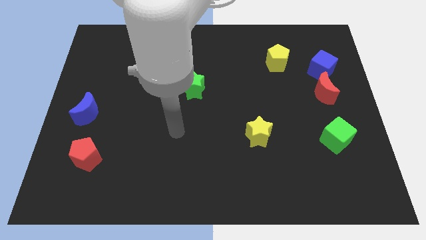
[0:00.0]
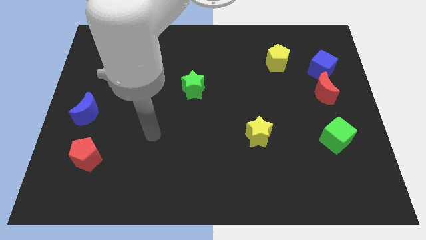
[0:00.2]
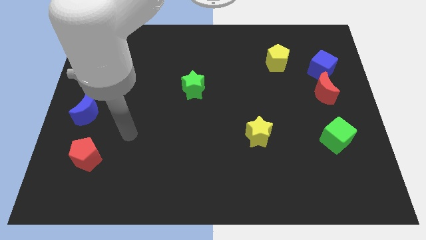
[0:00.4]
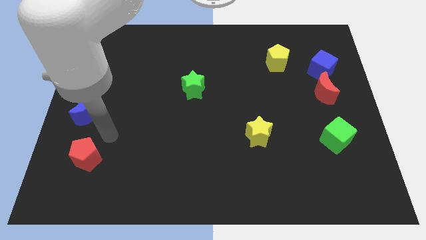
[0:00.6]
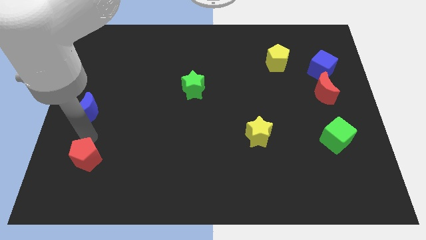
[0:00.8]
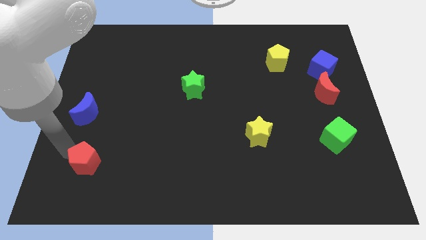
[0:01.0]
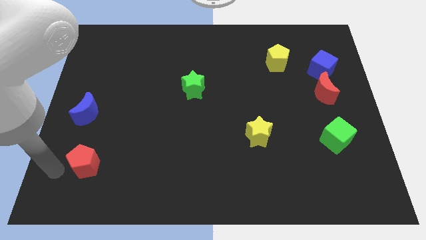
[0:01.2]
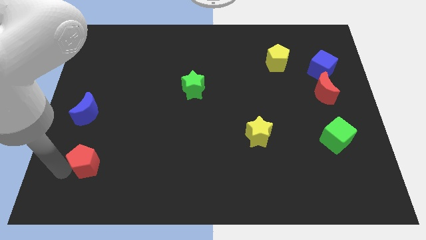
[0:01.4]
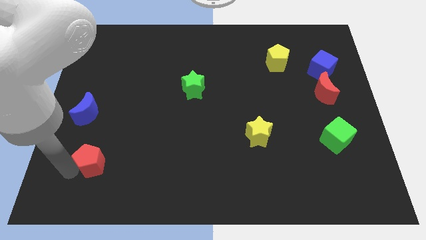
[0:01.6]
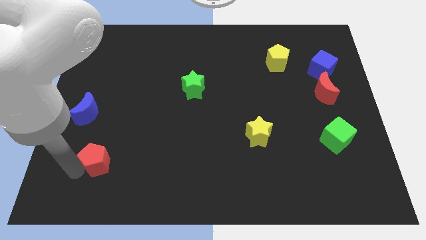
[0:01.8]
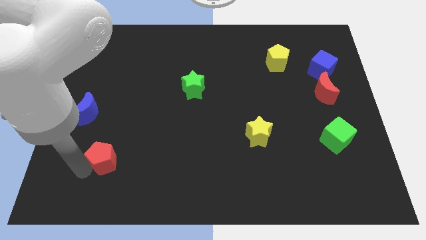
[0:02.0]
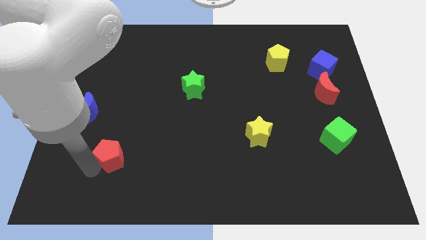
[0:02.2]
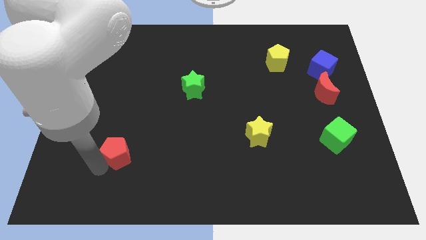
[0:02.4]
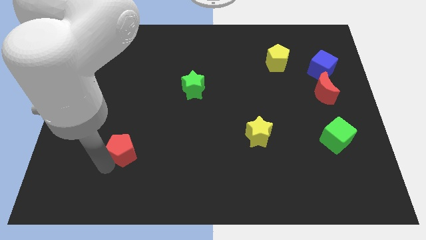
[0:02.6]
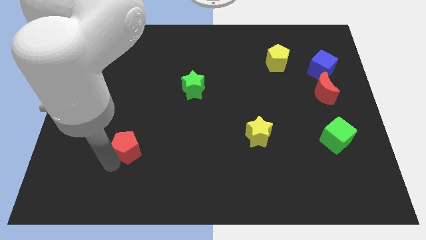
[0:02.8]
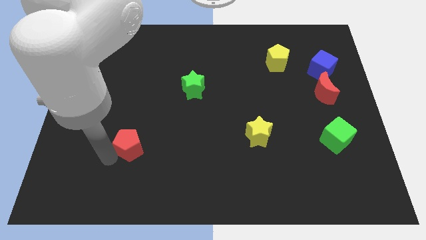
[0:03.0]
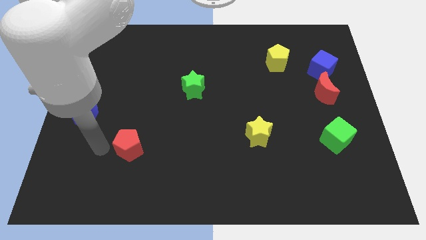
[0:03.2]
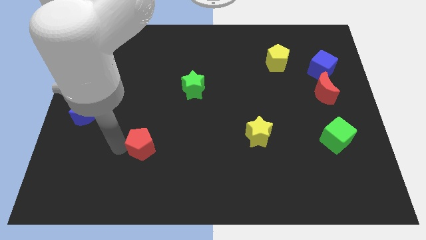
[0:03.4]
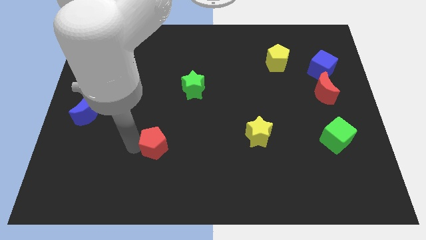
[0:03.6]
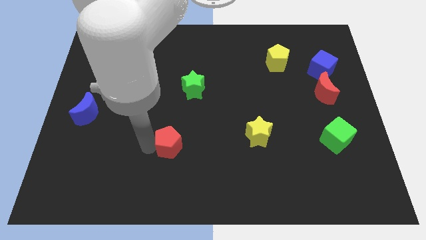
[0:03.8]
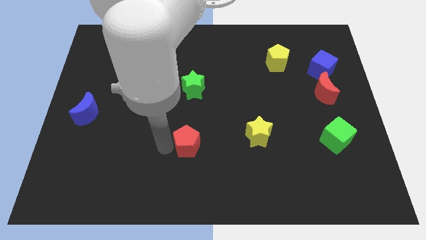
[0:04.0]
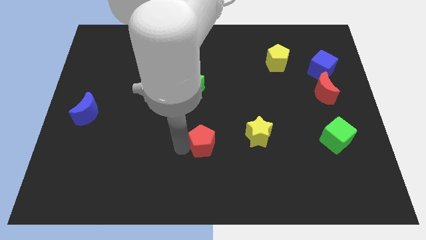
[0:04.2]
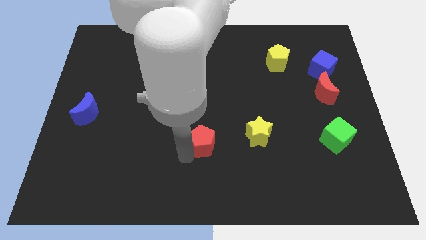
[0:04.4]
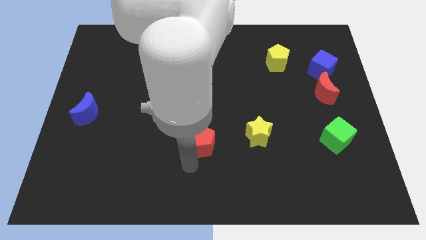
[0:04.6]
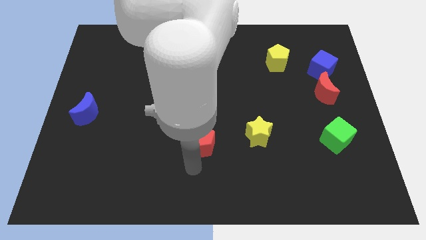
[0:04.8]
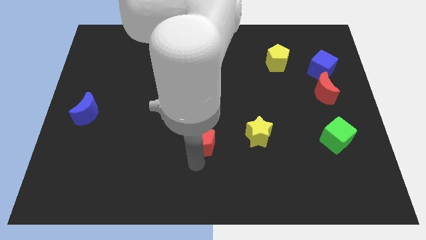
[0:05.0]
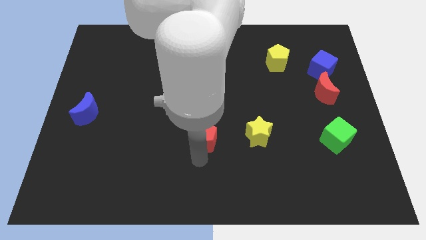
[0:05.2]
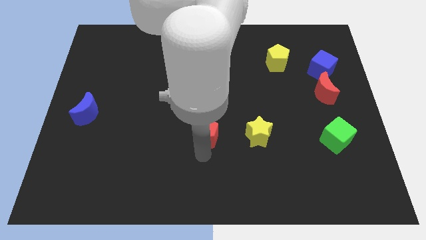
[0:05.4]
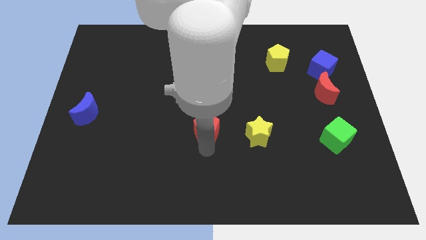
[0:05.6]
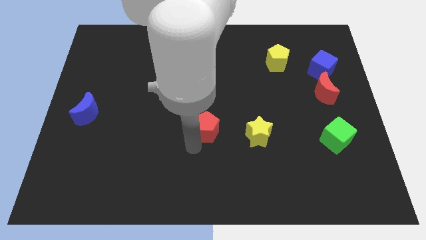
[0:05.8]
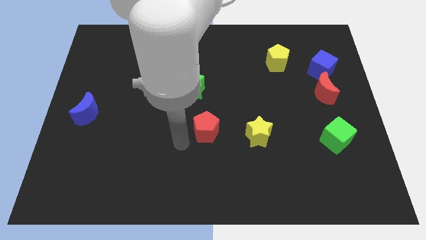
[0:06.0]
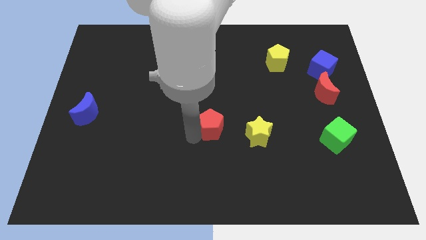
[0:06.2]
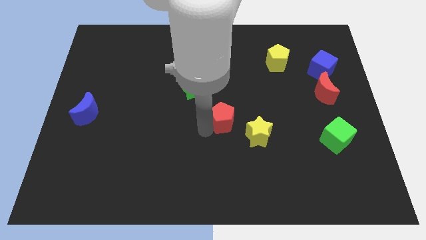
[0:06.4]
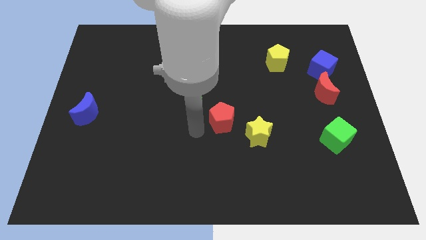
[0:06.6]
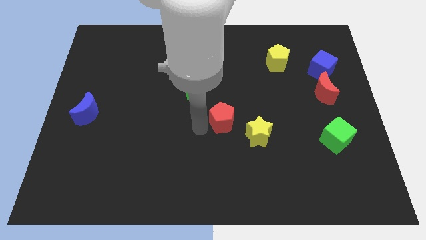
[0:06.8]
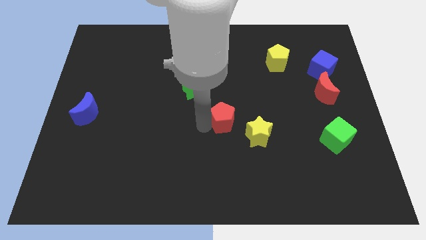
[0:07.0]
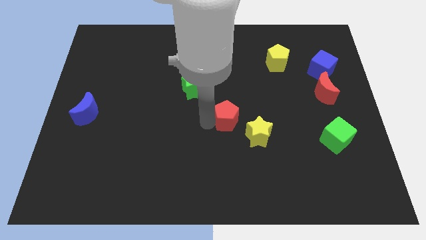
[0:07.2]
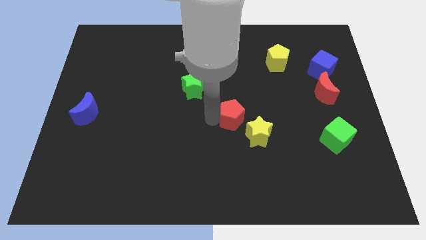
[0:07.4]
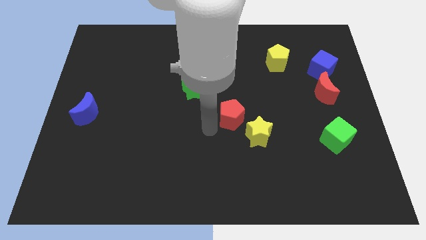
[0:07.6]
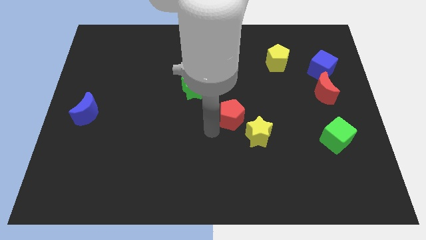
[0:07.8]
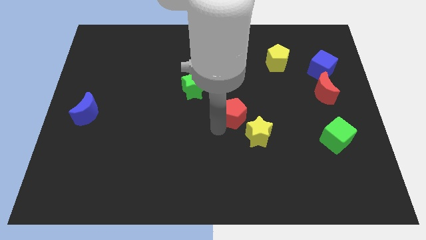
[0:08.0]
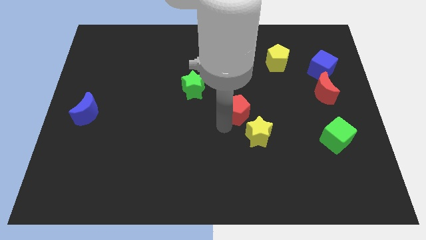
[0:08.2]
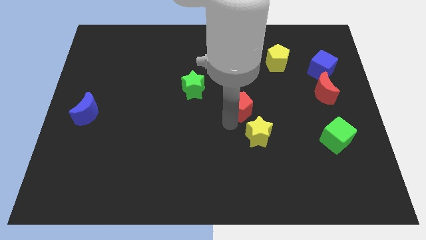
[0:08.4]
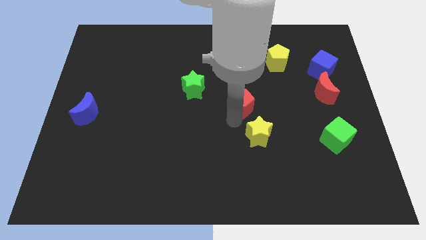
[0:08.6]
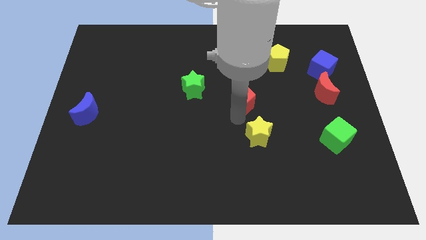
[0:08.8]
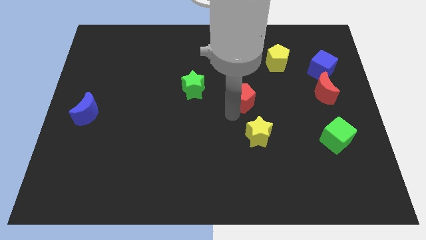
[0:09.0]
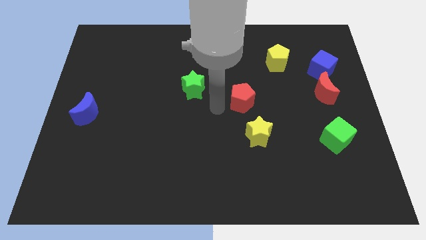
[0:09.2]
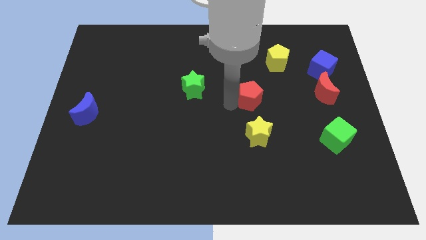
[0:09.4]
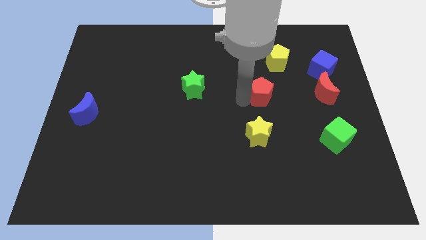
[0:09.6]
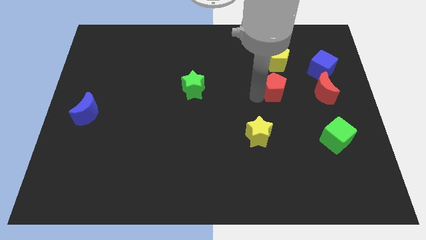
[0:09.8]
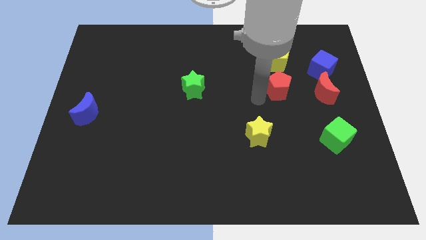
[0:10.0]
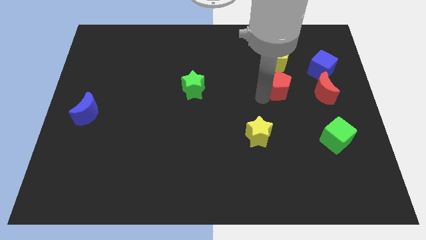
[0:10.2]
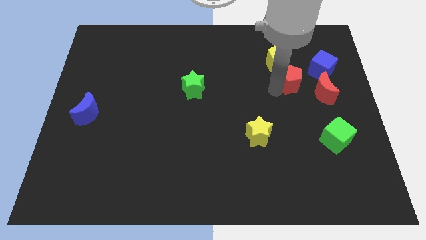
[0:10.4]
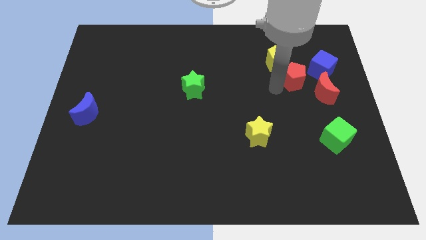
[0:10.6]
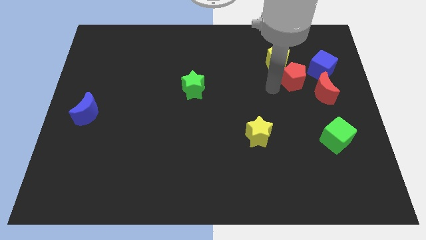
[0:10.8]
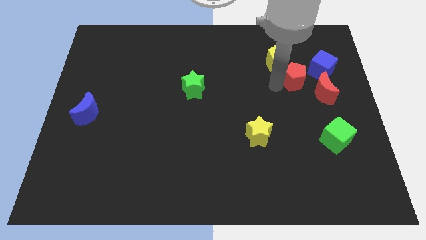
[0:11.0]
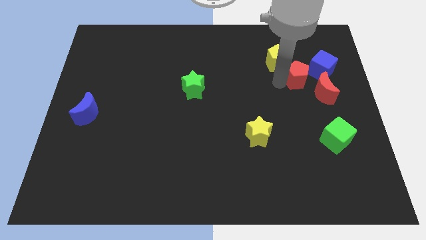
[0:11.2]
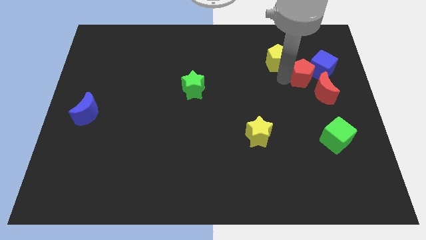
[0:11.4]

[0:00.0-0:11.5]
push the red pentagon next to the blue cube

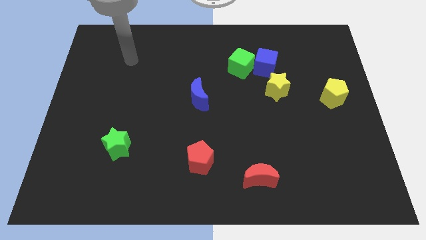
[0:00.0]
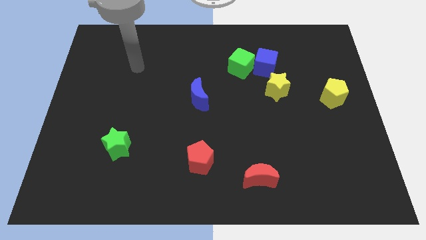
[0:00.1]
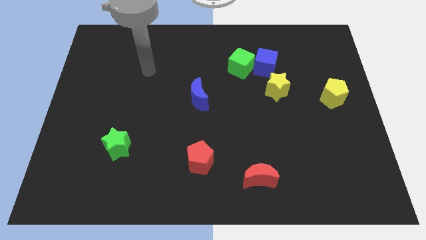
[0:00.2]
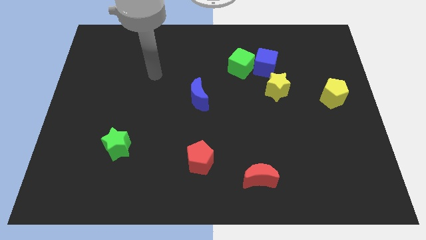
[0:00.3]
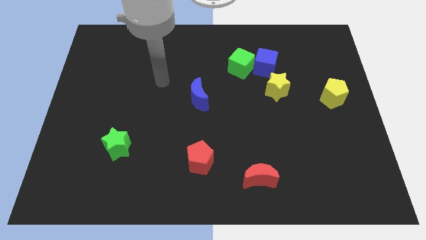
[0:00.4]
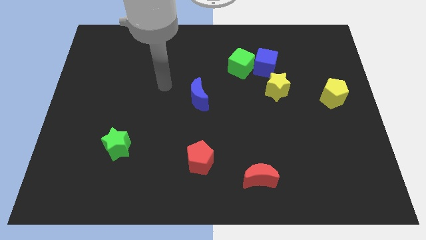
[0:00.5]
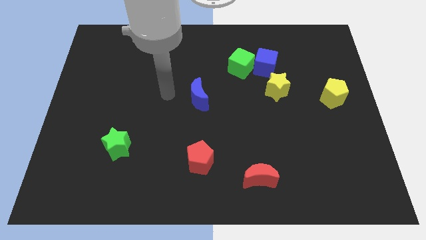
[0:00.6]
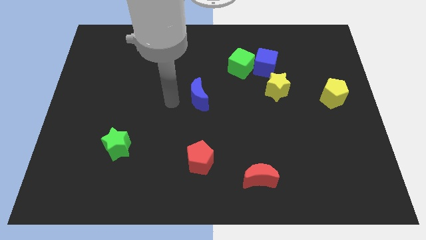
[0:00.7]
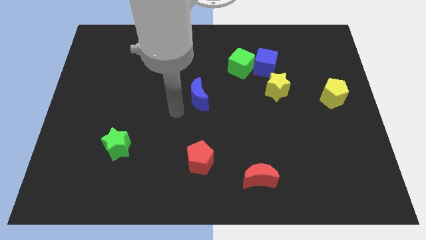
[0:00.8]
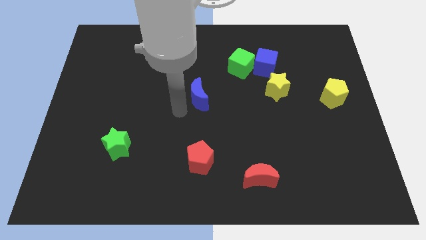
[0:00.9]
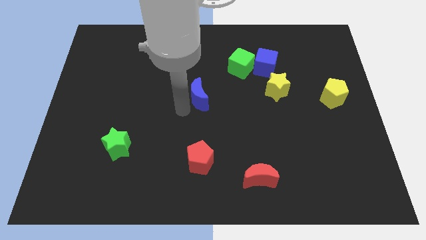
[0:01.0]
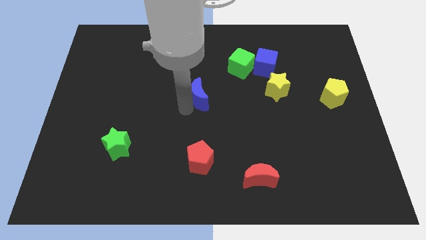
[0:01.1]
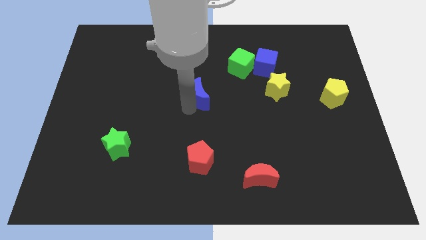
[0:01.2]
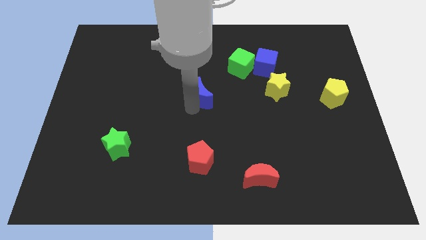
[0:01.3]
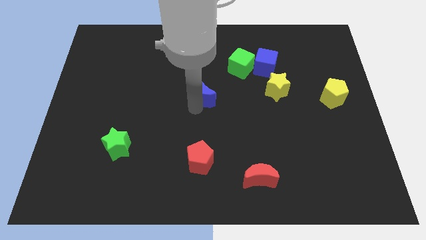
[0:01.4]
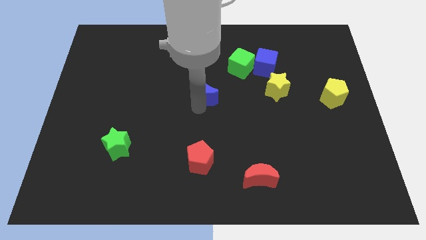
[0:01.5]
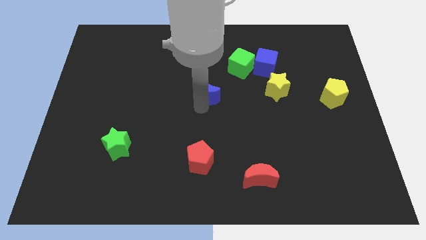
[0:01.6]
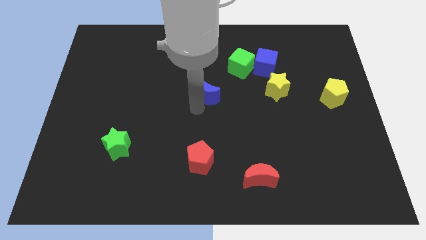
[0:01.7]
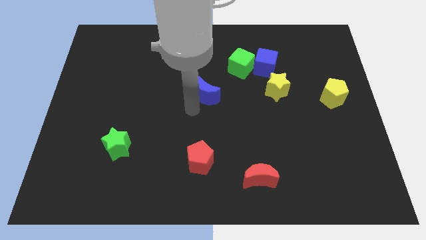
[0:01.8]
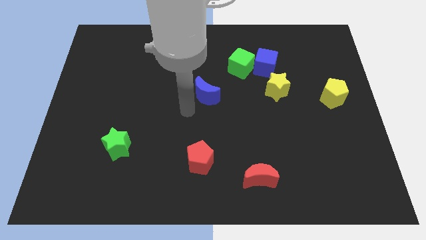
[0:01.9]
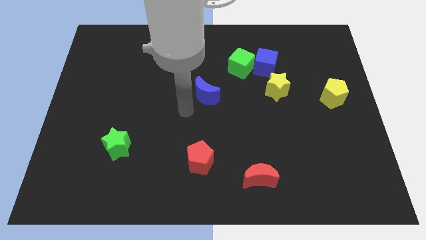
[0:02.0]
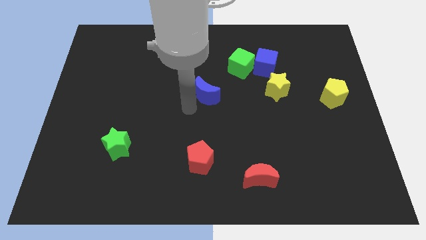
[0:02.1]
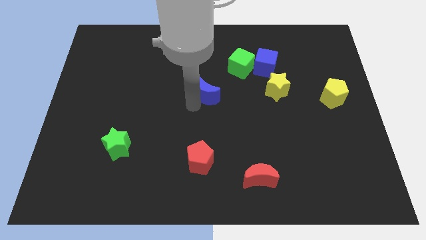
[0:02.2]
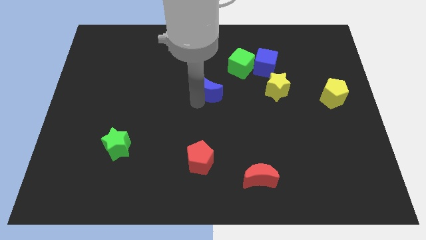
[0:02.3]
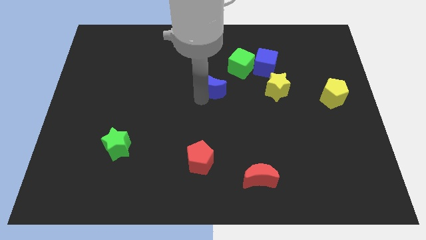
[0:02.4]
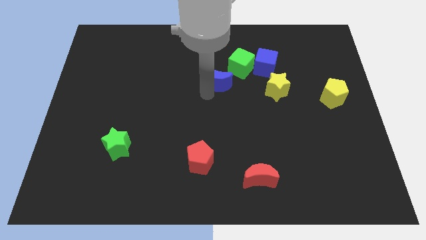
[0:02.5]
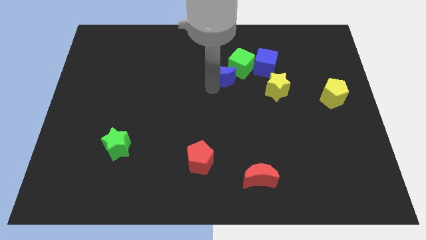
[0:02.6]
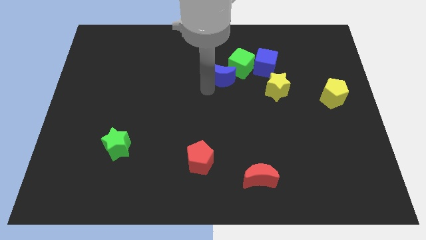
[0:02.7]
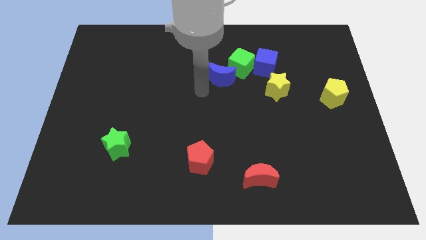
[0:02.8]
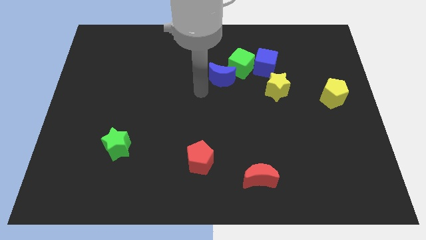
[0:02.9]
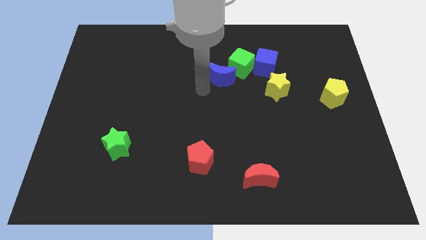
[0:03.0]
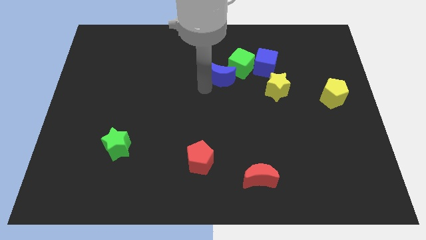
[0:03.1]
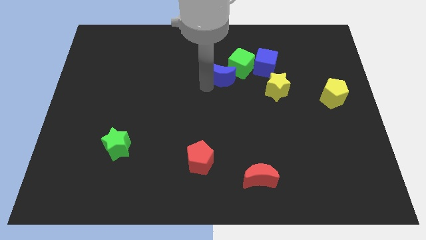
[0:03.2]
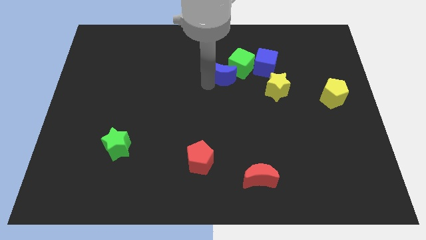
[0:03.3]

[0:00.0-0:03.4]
slide the blue moon close to the green cube
